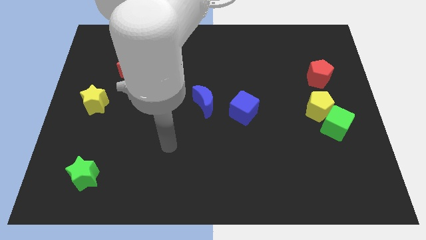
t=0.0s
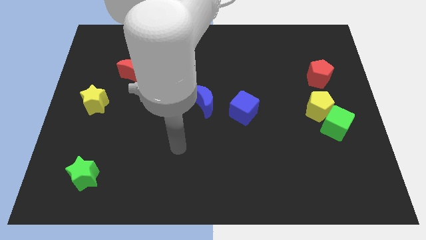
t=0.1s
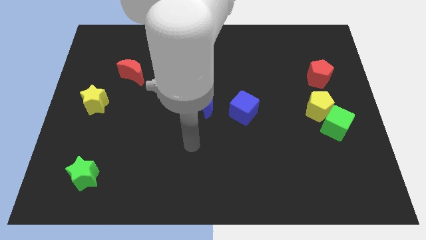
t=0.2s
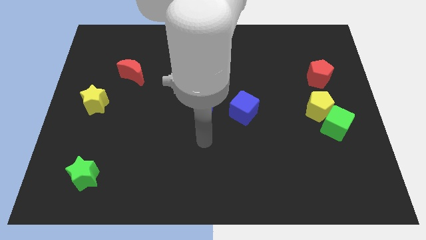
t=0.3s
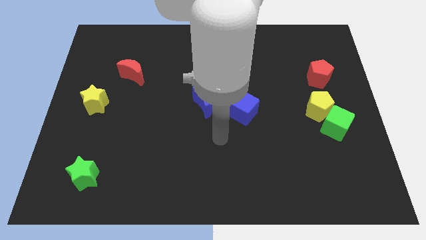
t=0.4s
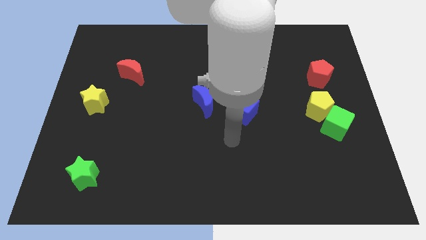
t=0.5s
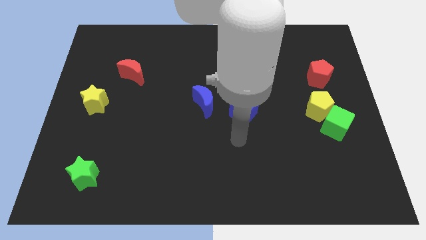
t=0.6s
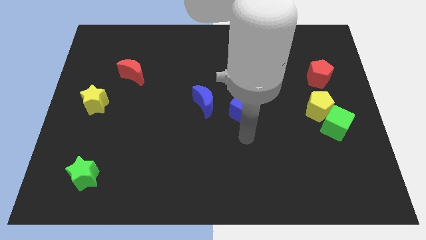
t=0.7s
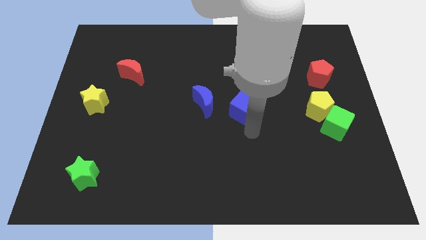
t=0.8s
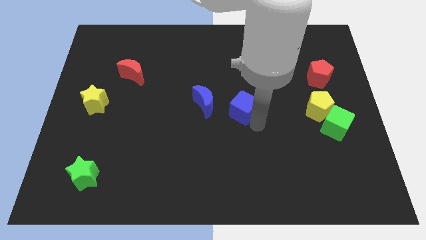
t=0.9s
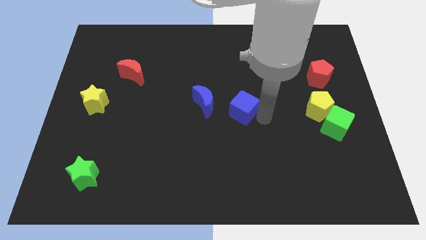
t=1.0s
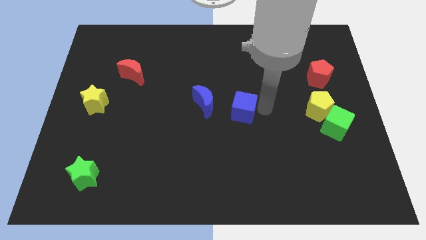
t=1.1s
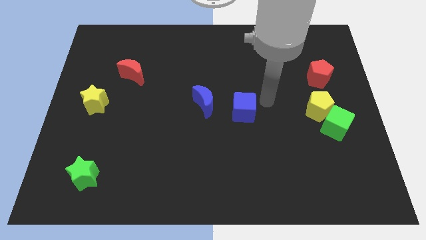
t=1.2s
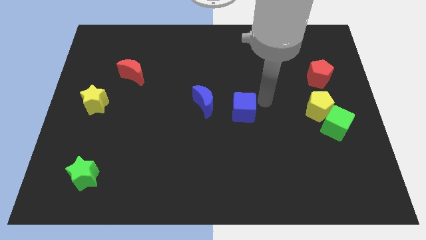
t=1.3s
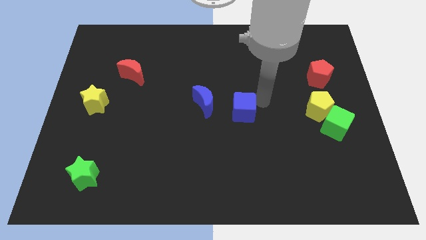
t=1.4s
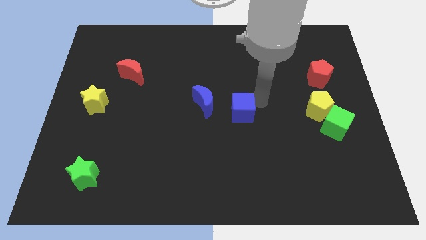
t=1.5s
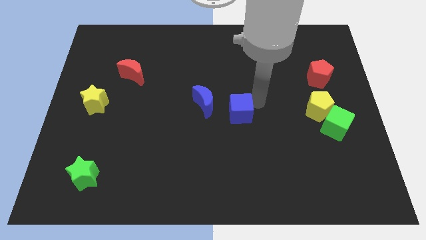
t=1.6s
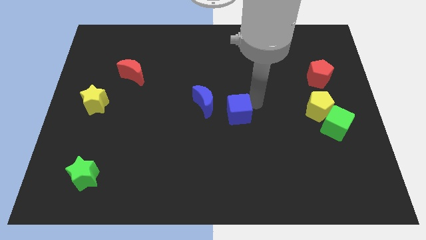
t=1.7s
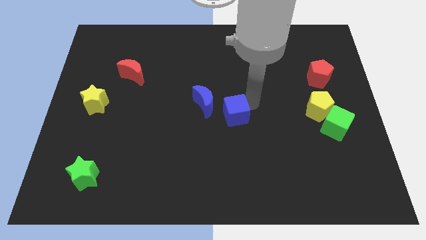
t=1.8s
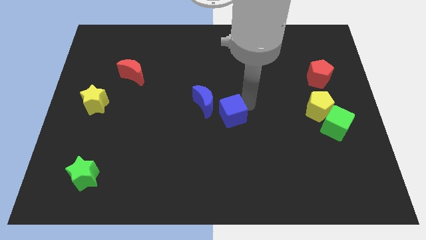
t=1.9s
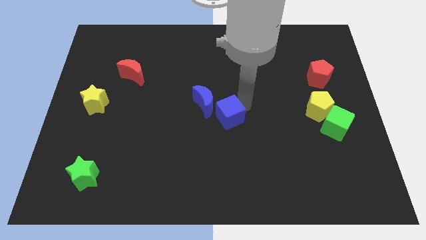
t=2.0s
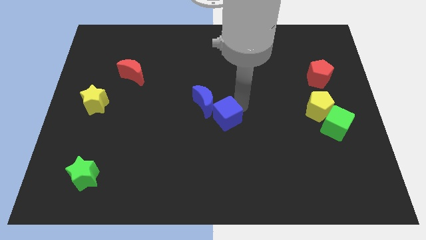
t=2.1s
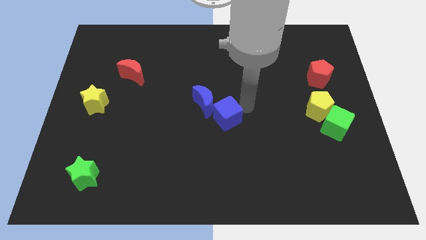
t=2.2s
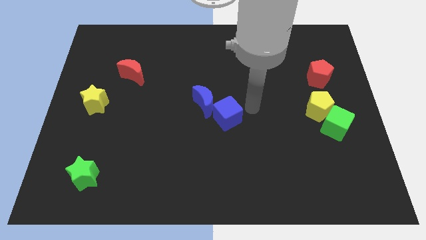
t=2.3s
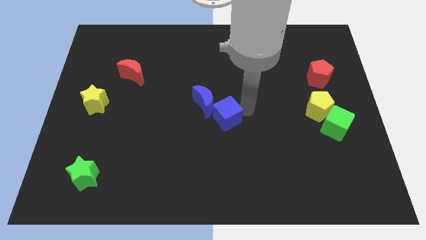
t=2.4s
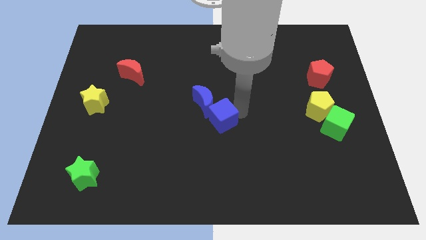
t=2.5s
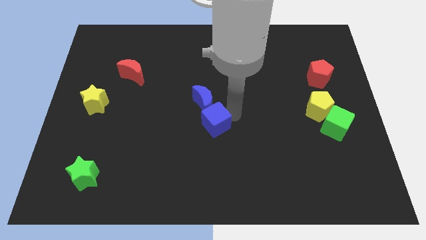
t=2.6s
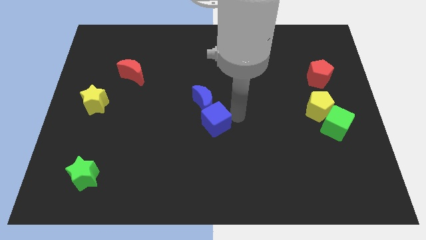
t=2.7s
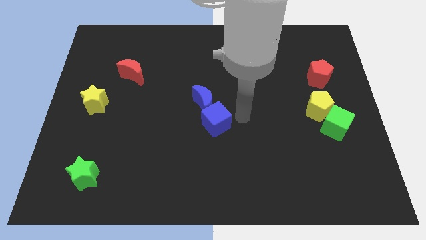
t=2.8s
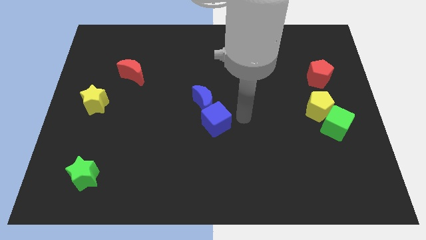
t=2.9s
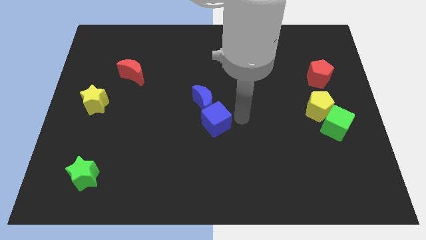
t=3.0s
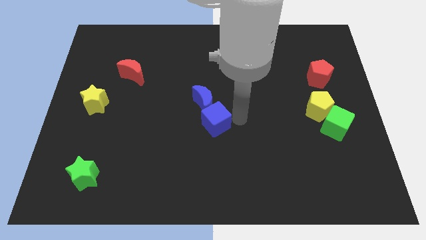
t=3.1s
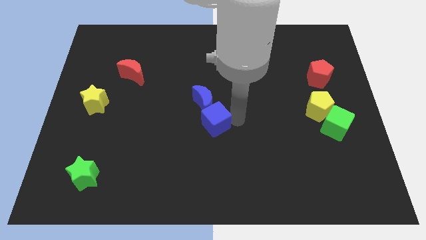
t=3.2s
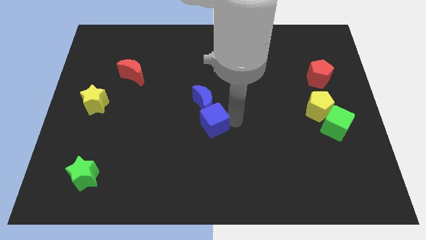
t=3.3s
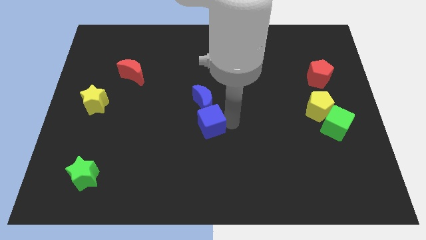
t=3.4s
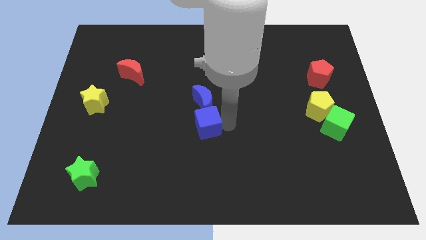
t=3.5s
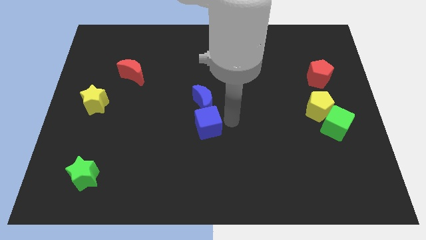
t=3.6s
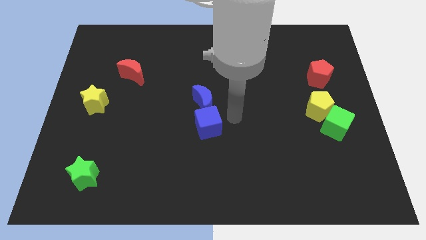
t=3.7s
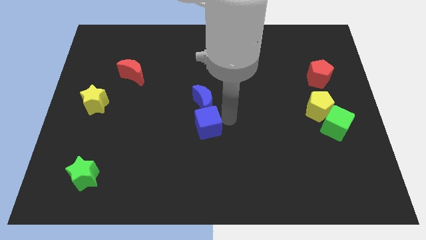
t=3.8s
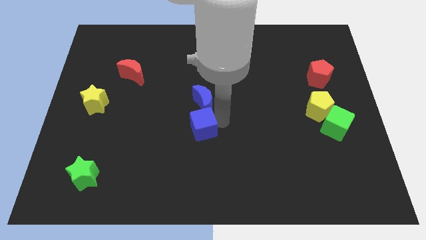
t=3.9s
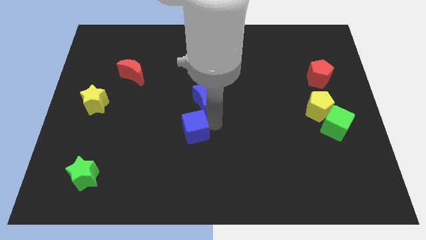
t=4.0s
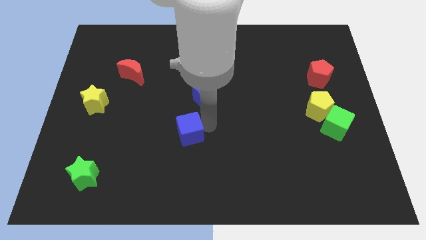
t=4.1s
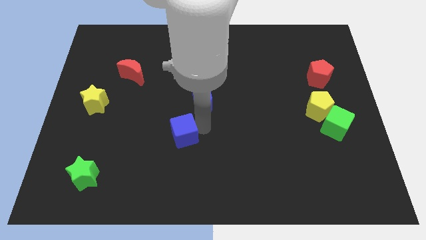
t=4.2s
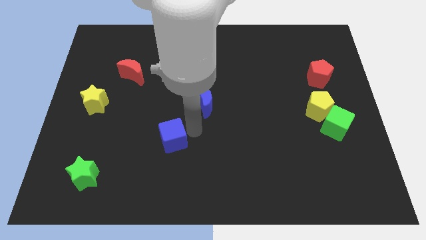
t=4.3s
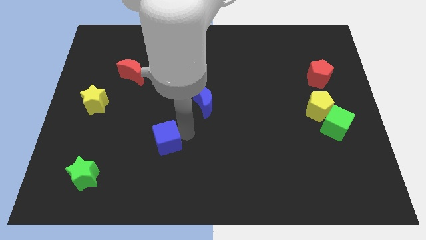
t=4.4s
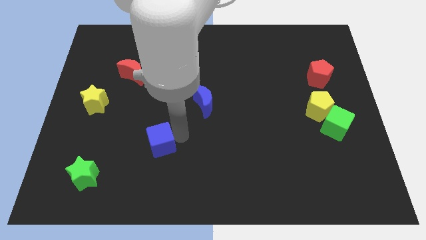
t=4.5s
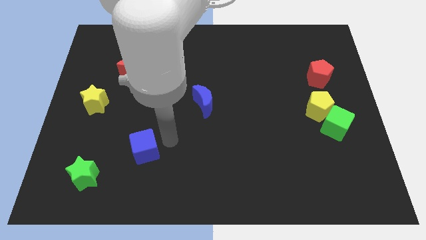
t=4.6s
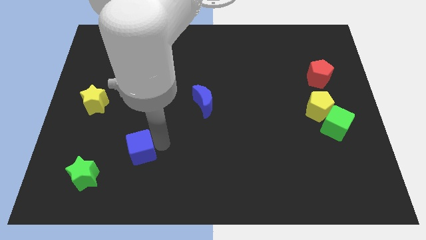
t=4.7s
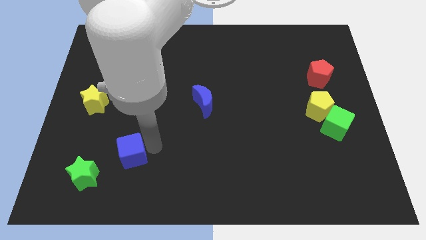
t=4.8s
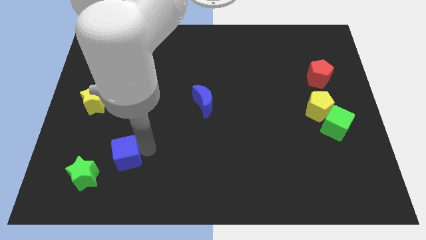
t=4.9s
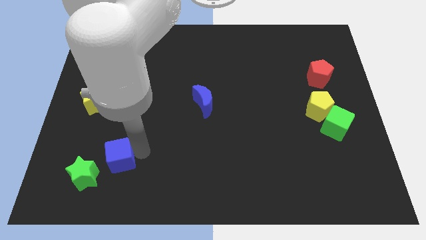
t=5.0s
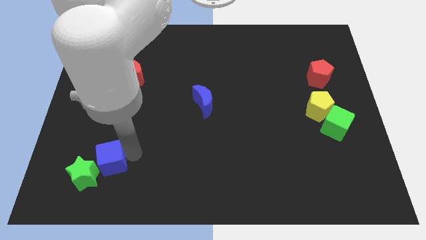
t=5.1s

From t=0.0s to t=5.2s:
move the blue cube to the green star

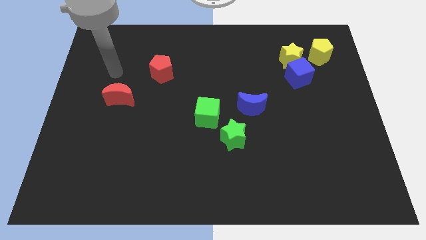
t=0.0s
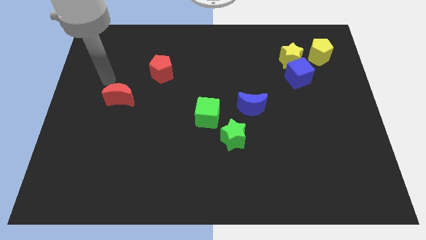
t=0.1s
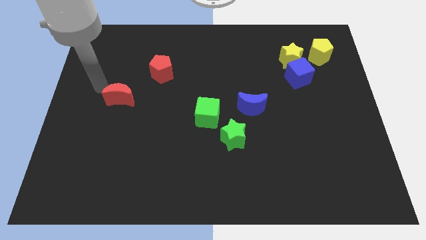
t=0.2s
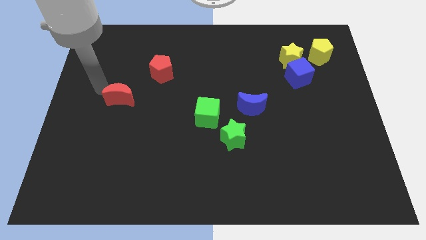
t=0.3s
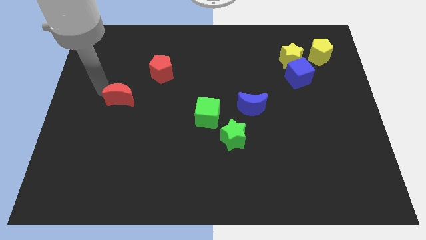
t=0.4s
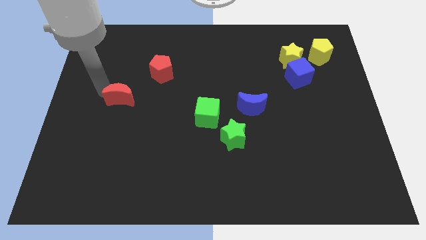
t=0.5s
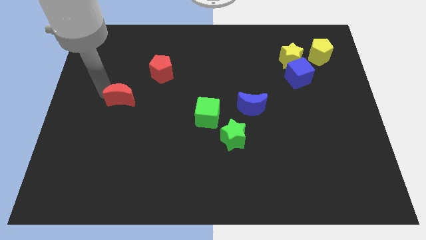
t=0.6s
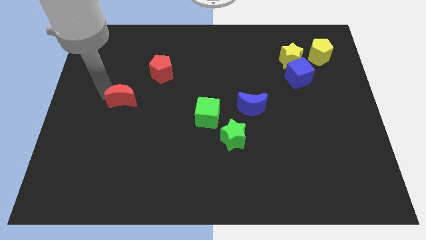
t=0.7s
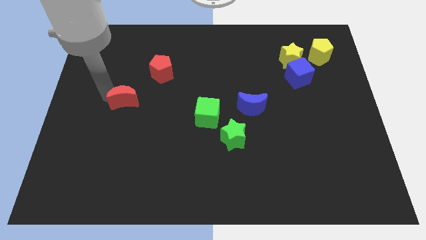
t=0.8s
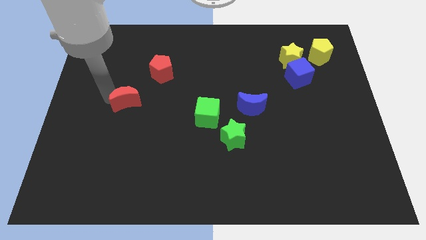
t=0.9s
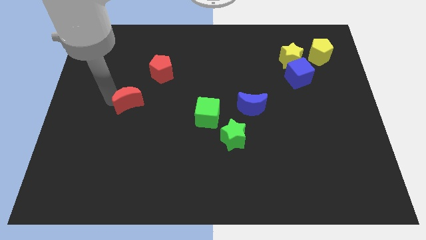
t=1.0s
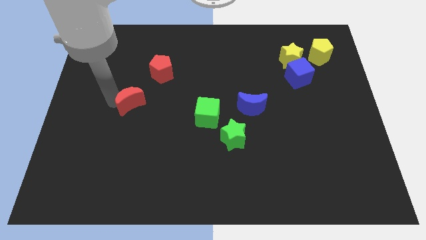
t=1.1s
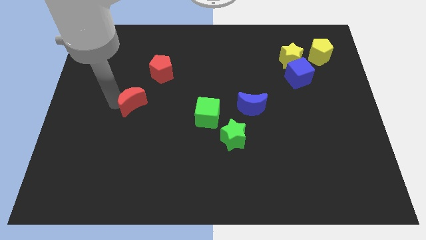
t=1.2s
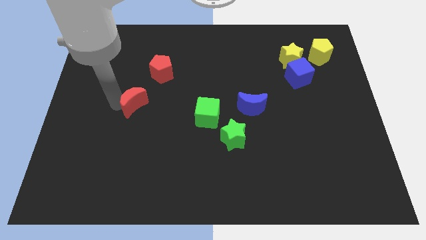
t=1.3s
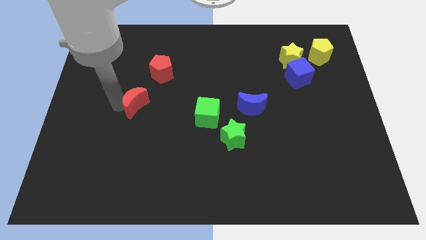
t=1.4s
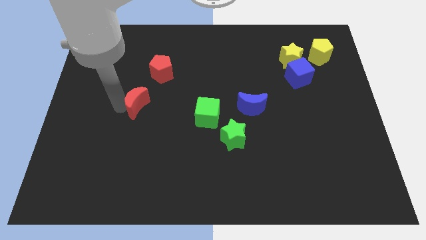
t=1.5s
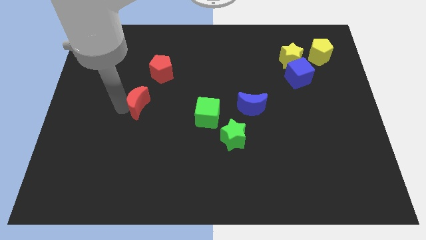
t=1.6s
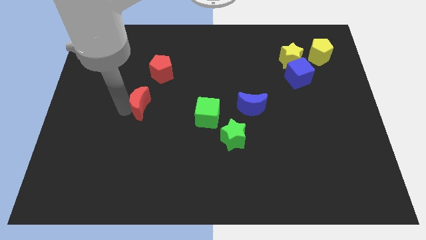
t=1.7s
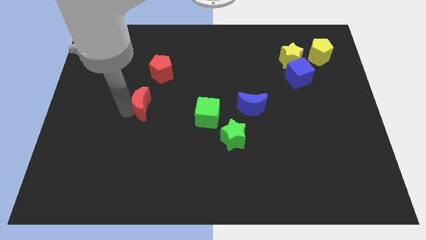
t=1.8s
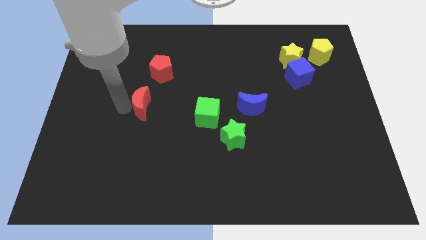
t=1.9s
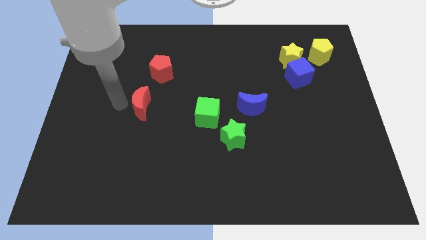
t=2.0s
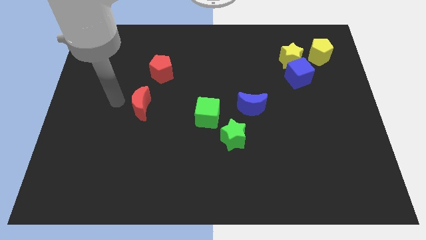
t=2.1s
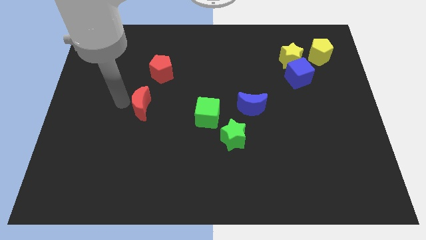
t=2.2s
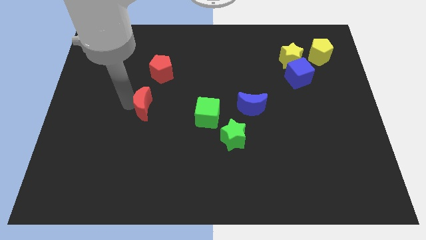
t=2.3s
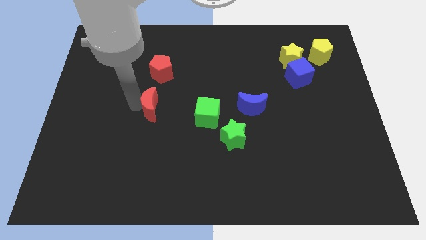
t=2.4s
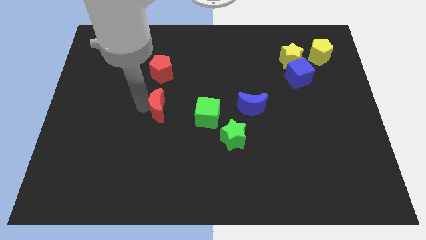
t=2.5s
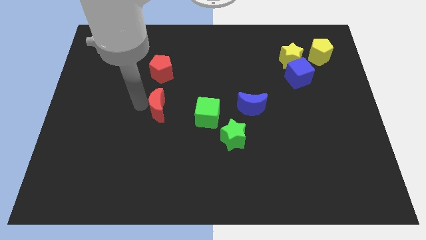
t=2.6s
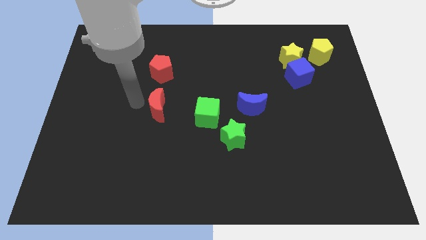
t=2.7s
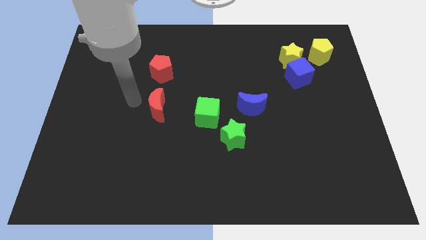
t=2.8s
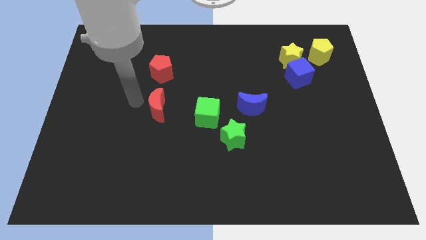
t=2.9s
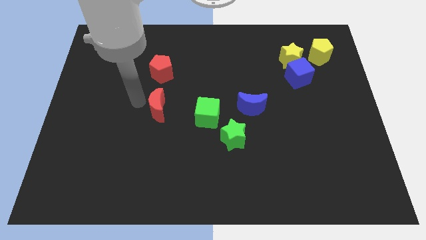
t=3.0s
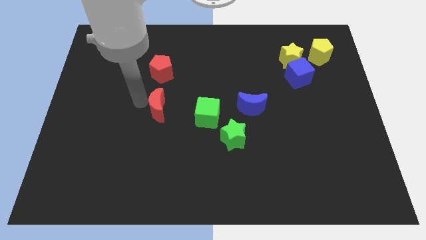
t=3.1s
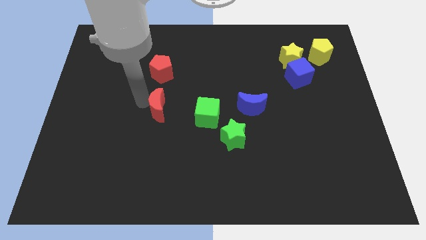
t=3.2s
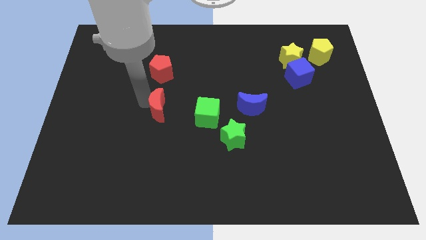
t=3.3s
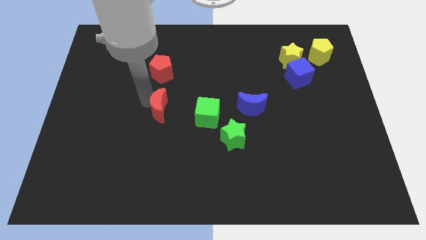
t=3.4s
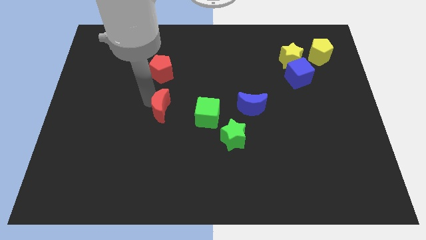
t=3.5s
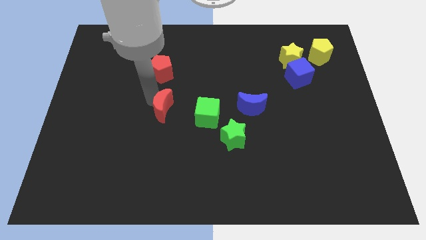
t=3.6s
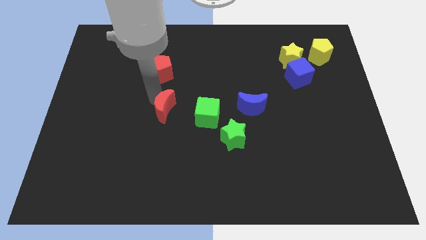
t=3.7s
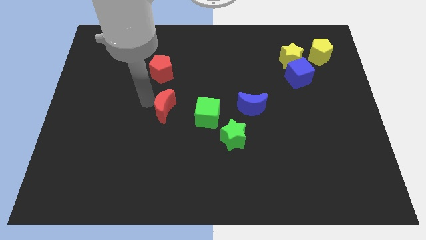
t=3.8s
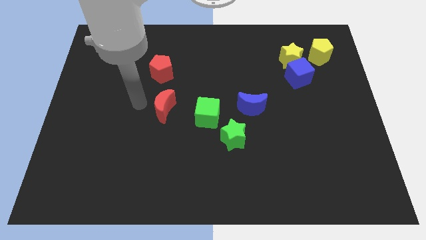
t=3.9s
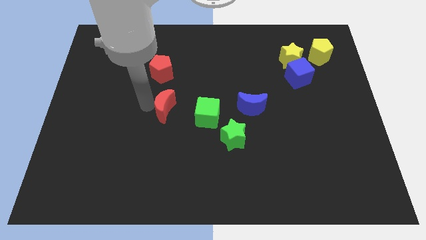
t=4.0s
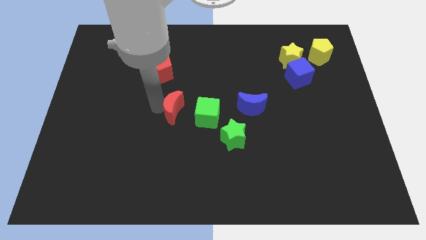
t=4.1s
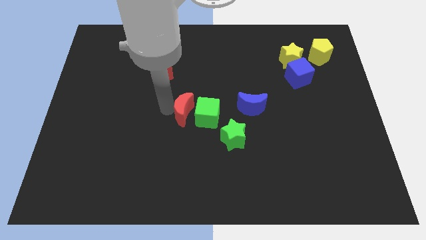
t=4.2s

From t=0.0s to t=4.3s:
slide the red moon next to the green cube
